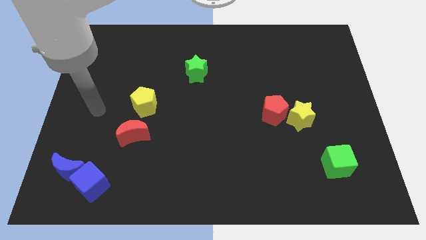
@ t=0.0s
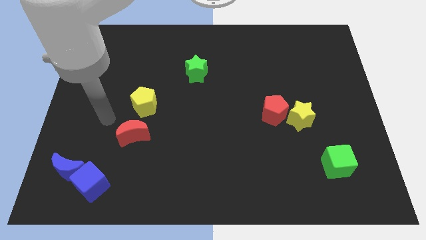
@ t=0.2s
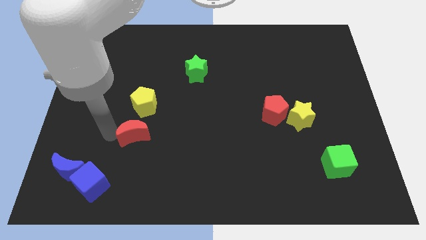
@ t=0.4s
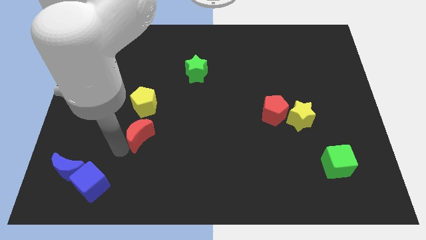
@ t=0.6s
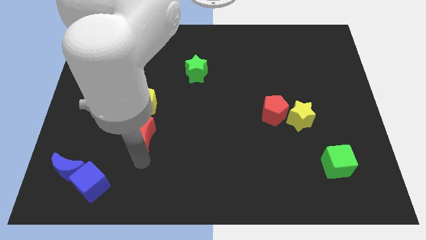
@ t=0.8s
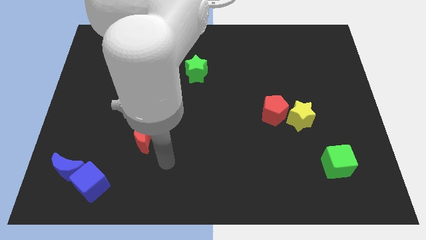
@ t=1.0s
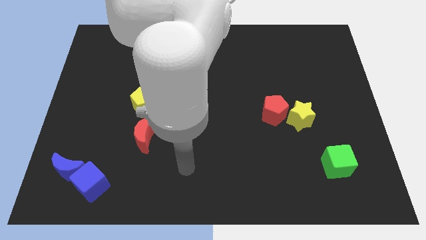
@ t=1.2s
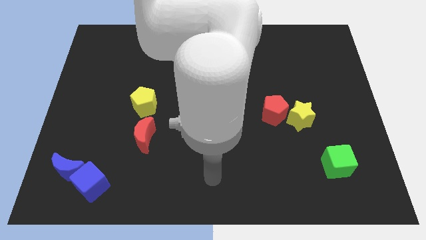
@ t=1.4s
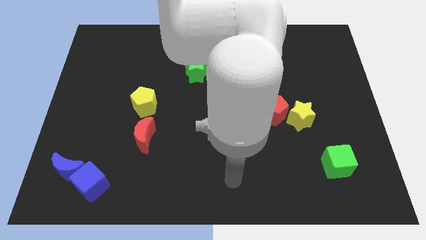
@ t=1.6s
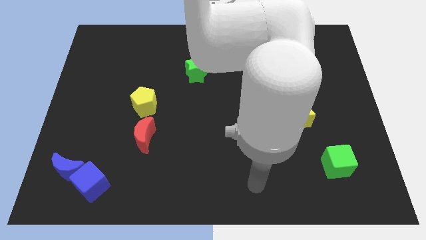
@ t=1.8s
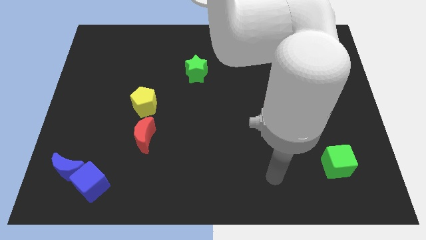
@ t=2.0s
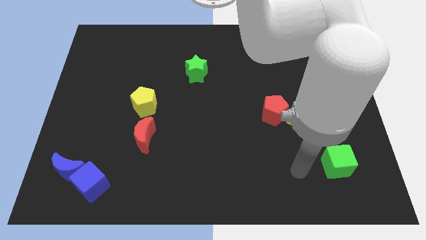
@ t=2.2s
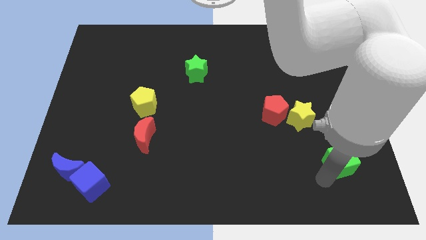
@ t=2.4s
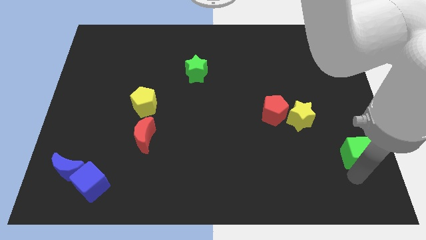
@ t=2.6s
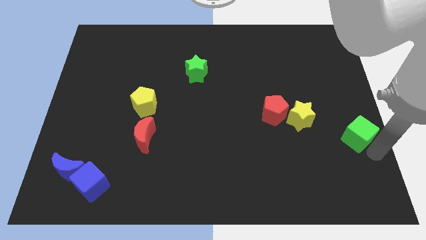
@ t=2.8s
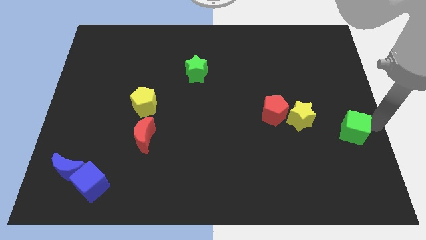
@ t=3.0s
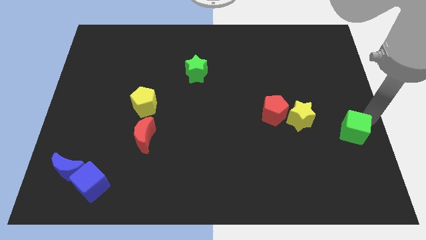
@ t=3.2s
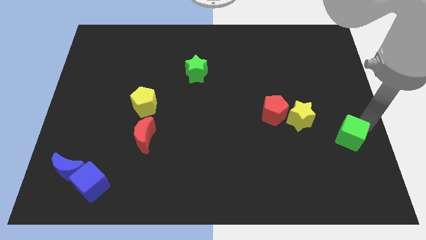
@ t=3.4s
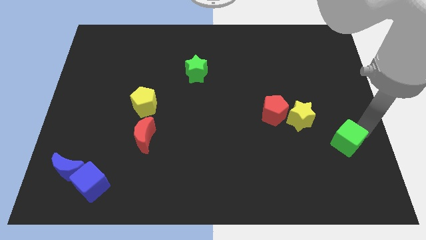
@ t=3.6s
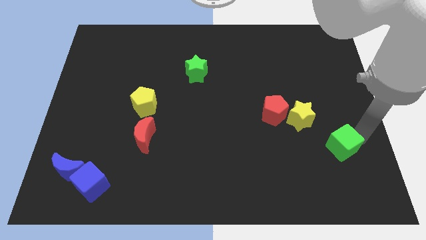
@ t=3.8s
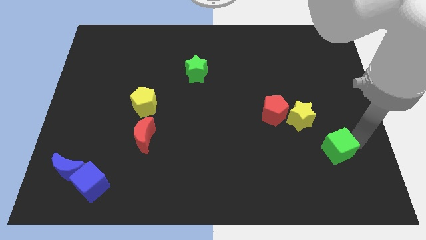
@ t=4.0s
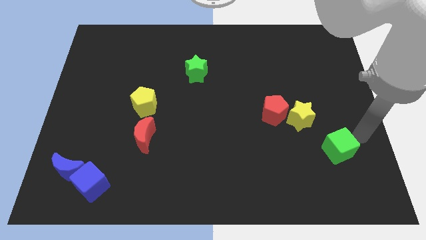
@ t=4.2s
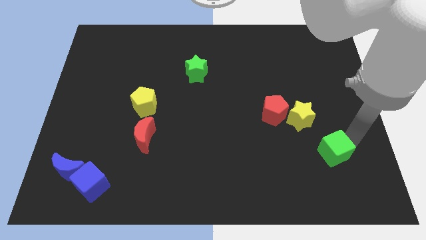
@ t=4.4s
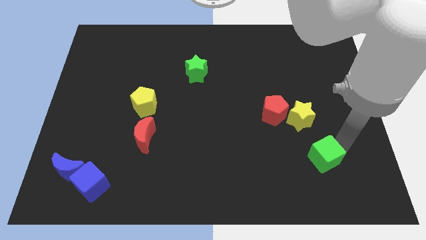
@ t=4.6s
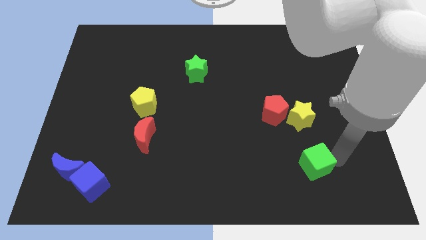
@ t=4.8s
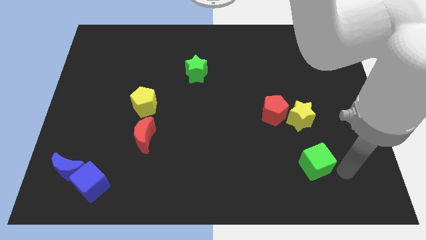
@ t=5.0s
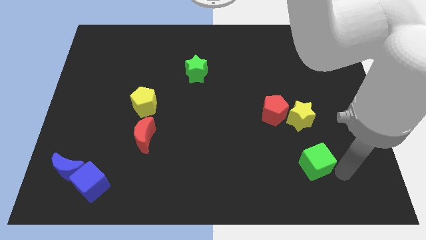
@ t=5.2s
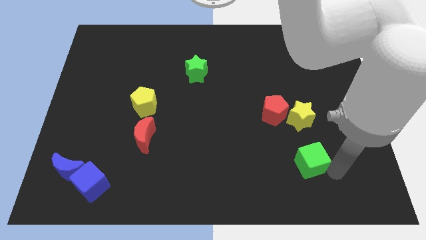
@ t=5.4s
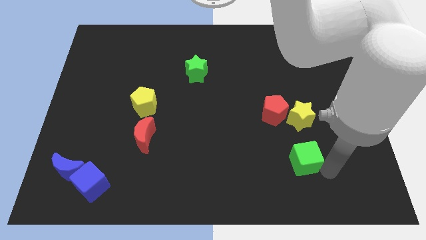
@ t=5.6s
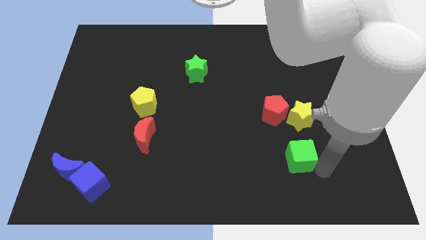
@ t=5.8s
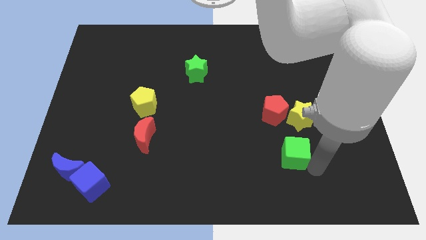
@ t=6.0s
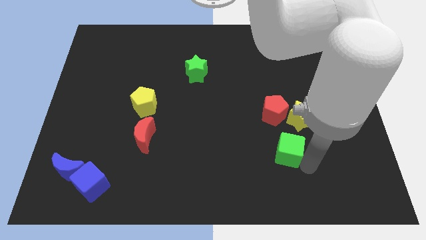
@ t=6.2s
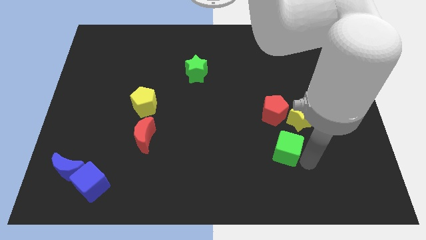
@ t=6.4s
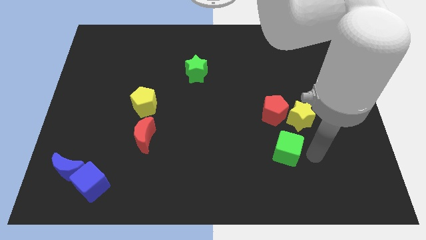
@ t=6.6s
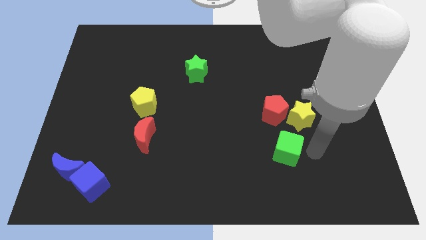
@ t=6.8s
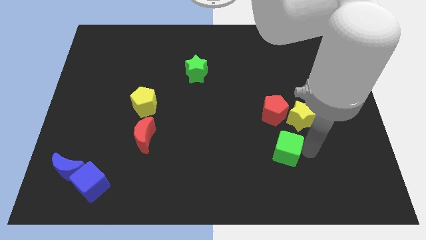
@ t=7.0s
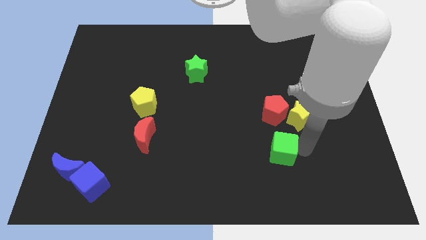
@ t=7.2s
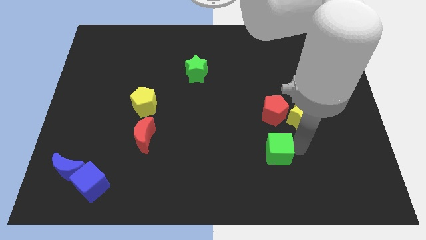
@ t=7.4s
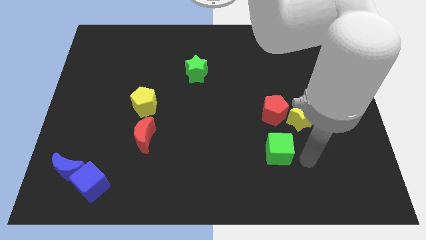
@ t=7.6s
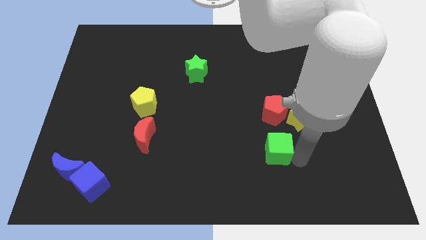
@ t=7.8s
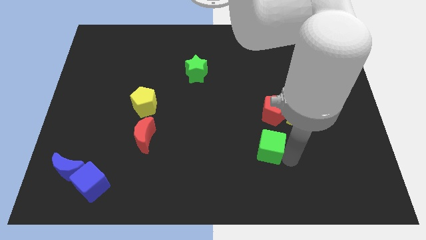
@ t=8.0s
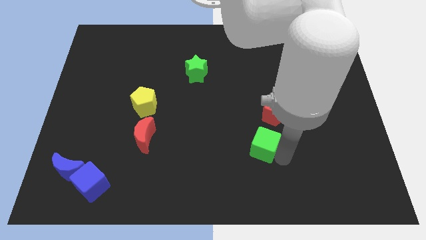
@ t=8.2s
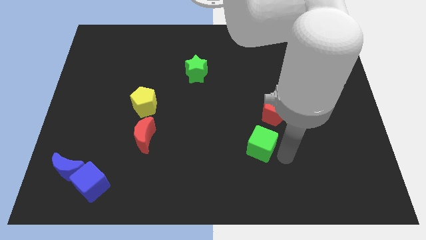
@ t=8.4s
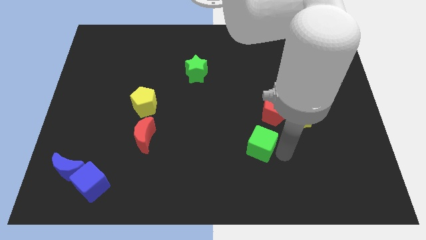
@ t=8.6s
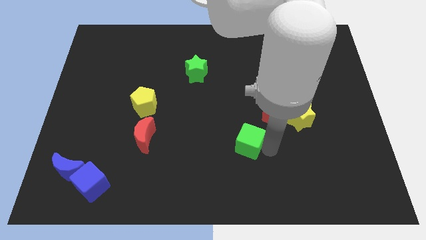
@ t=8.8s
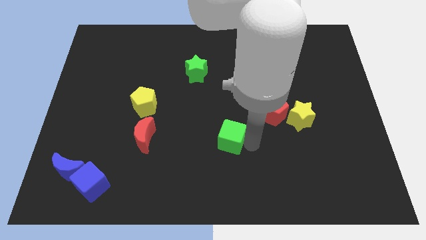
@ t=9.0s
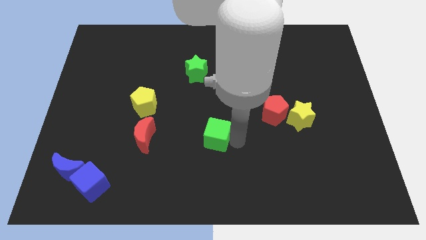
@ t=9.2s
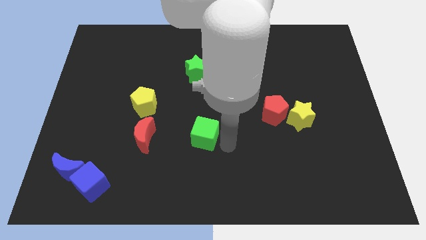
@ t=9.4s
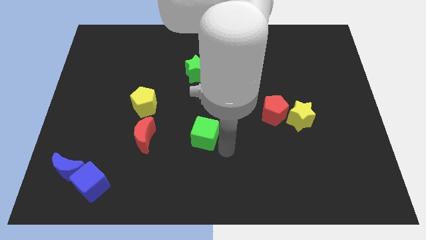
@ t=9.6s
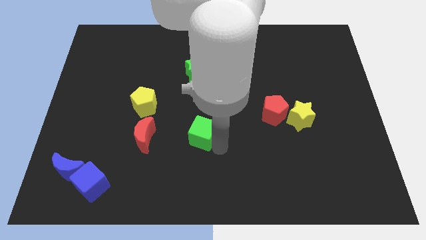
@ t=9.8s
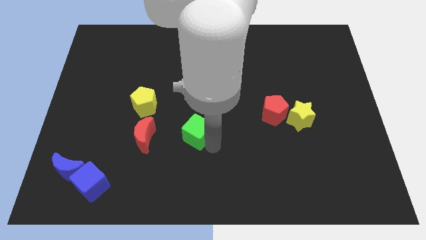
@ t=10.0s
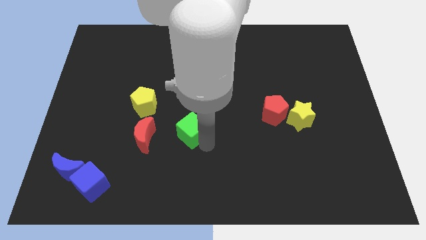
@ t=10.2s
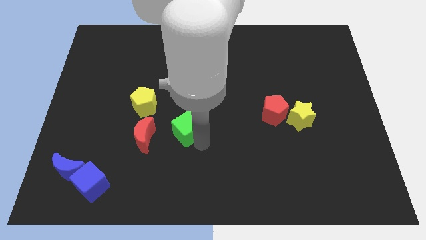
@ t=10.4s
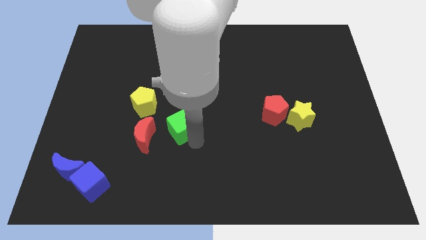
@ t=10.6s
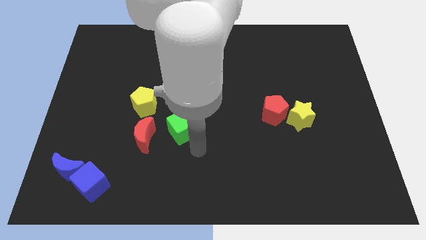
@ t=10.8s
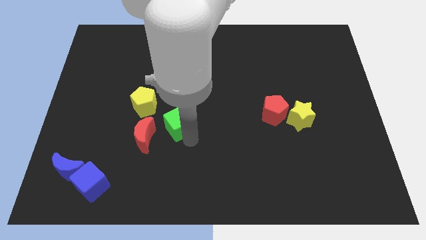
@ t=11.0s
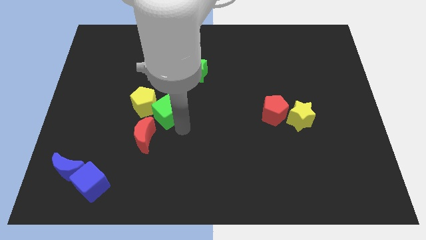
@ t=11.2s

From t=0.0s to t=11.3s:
move the green cube next to the yellow pentagon

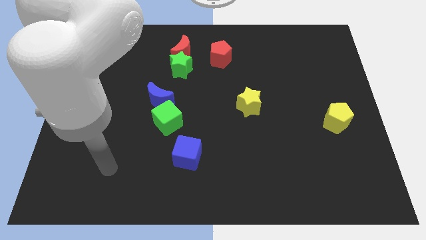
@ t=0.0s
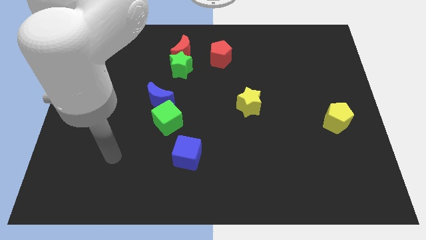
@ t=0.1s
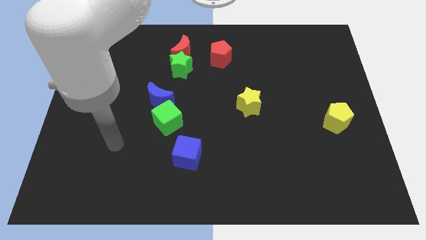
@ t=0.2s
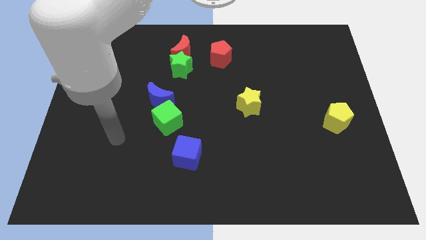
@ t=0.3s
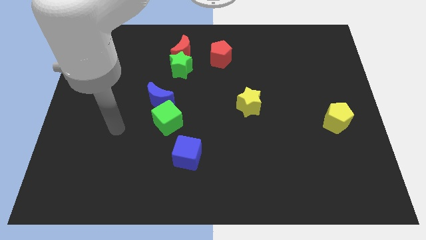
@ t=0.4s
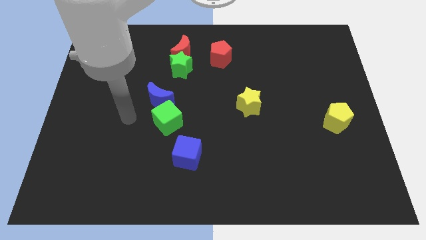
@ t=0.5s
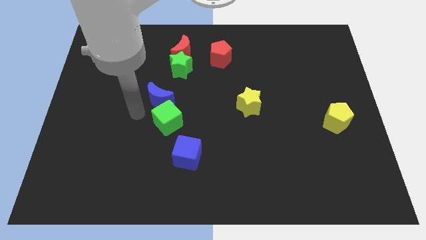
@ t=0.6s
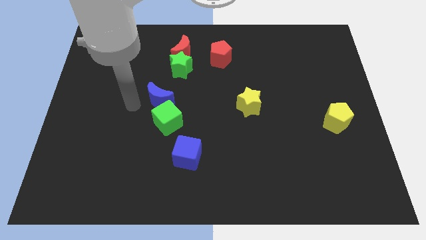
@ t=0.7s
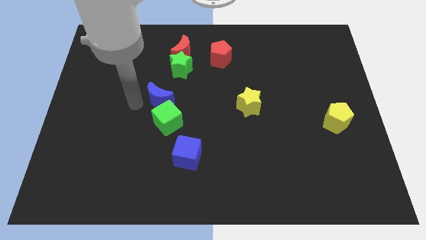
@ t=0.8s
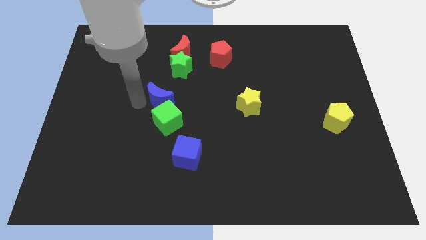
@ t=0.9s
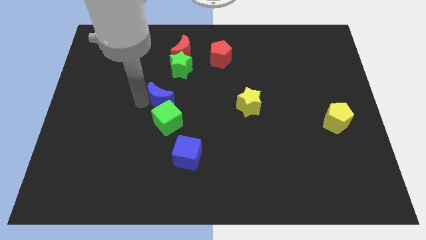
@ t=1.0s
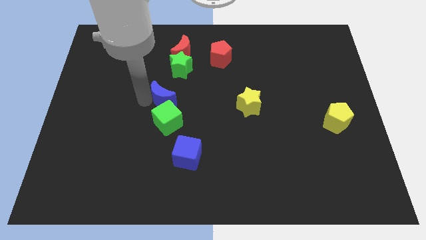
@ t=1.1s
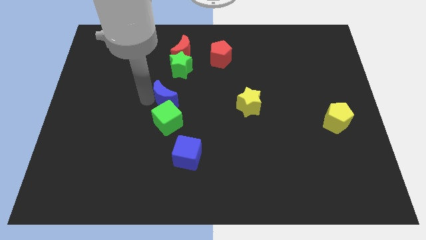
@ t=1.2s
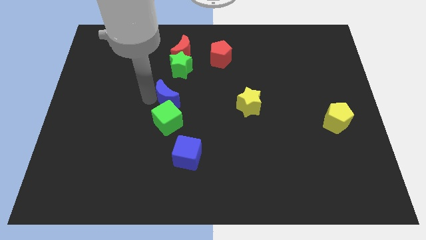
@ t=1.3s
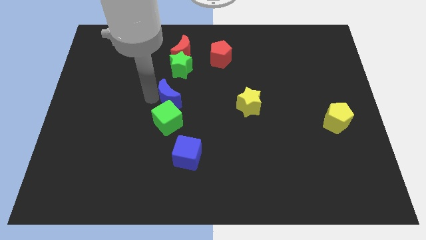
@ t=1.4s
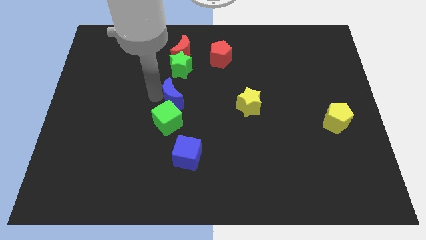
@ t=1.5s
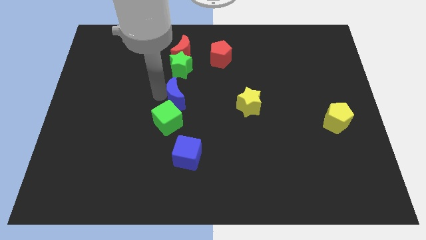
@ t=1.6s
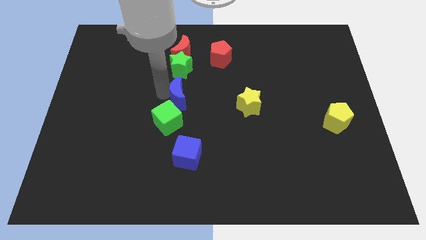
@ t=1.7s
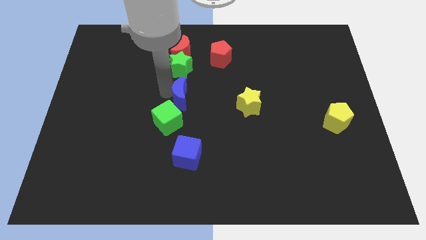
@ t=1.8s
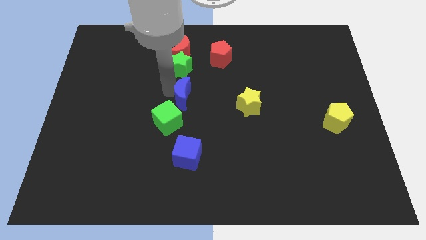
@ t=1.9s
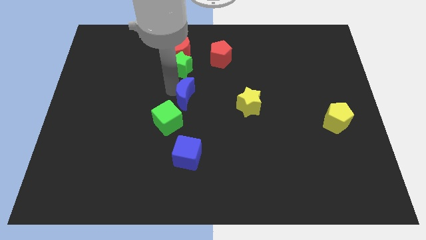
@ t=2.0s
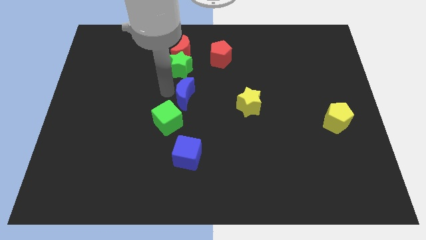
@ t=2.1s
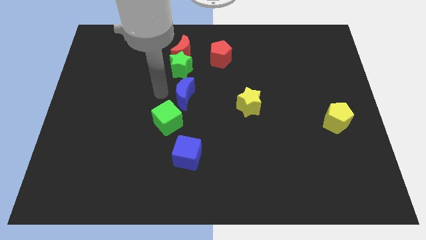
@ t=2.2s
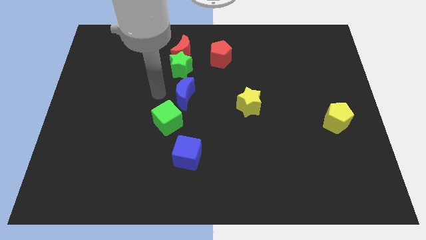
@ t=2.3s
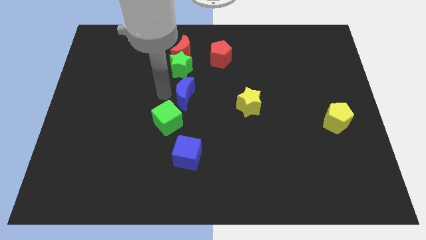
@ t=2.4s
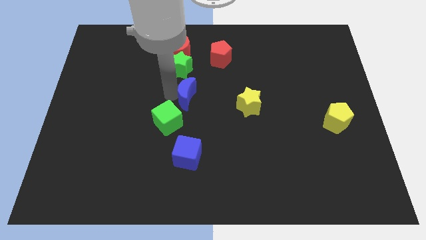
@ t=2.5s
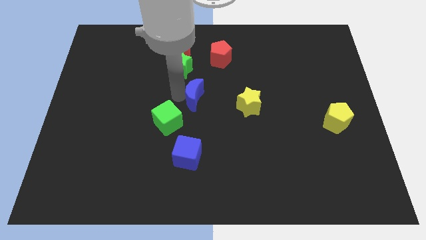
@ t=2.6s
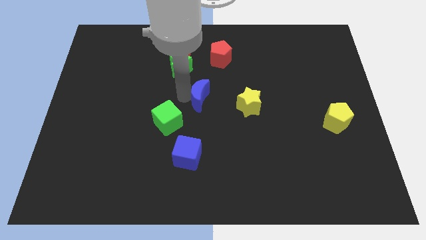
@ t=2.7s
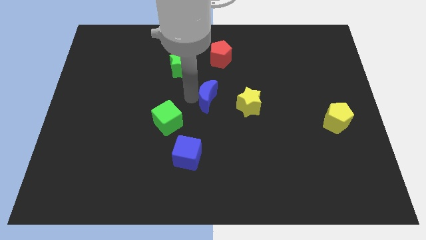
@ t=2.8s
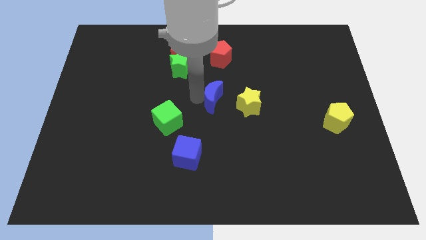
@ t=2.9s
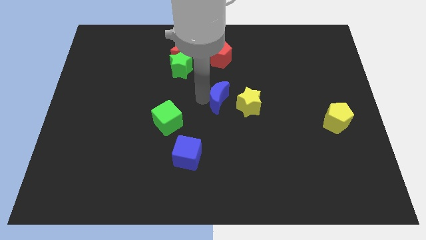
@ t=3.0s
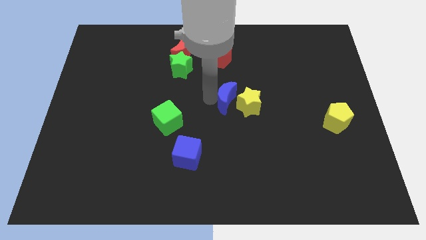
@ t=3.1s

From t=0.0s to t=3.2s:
slide the blue moon next to the yellow star
